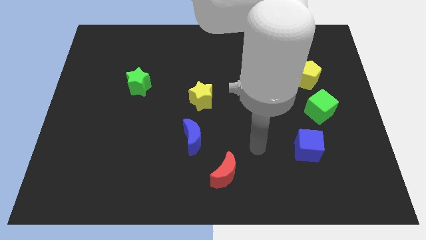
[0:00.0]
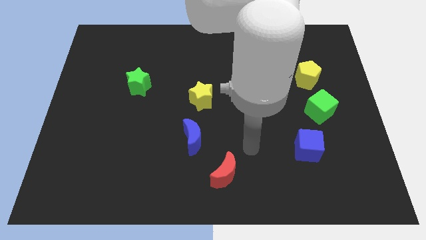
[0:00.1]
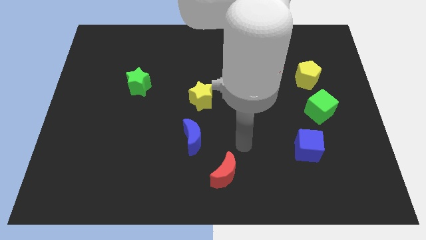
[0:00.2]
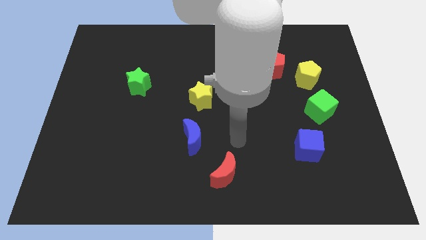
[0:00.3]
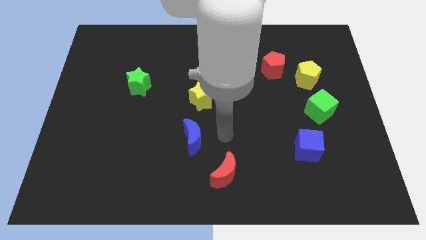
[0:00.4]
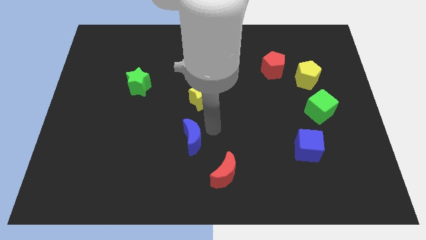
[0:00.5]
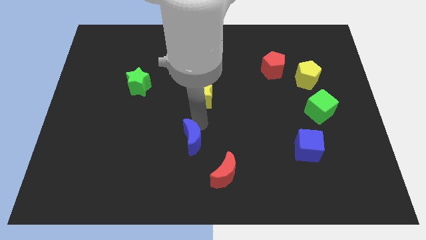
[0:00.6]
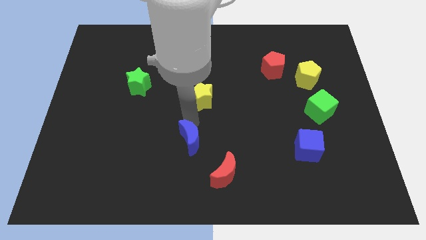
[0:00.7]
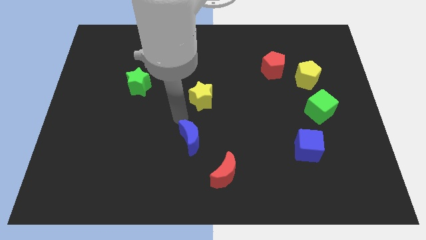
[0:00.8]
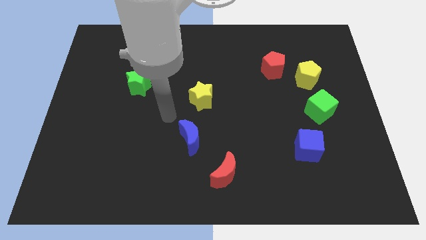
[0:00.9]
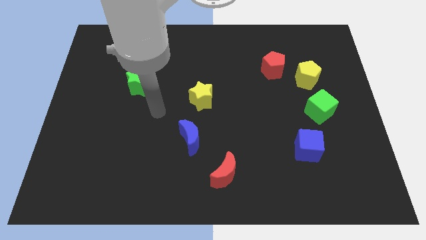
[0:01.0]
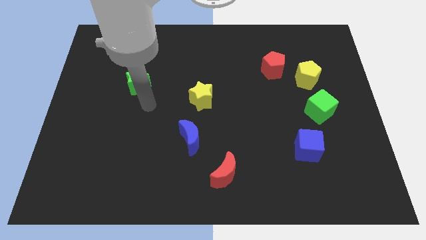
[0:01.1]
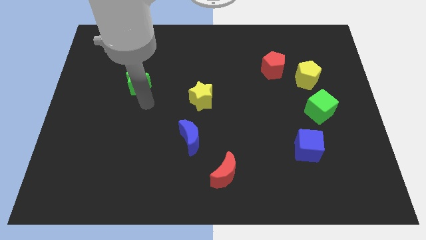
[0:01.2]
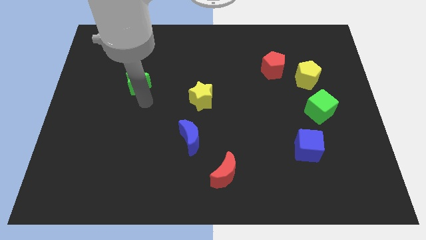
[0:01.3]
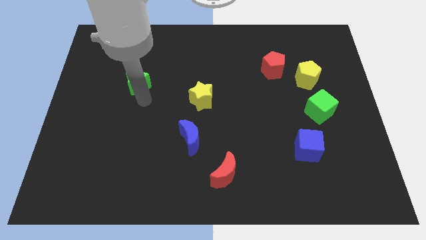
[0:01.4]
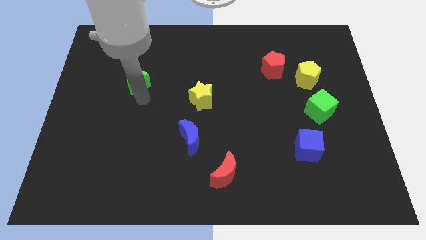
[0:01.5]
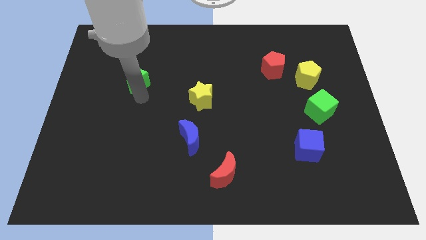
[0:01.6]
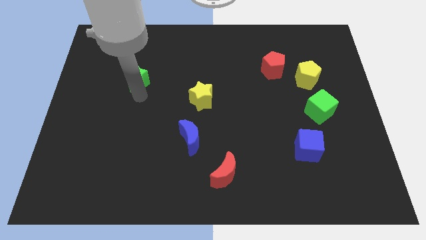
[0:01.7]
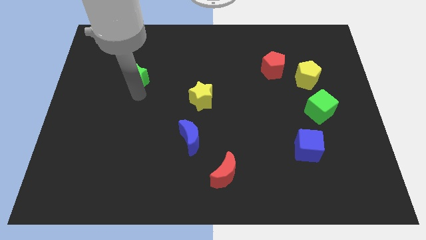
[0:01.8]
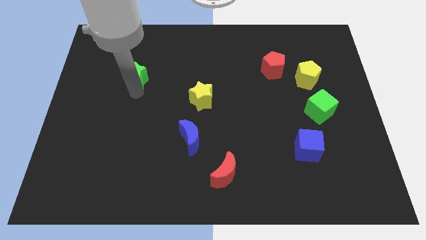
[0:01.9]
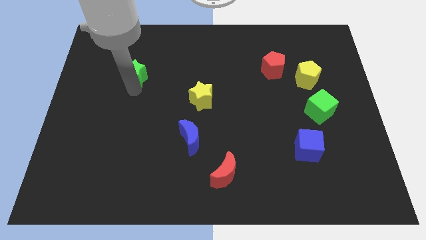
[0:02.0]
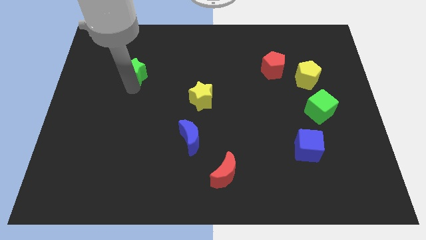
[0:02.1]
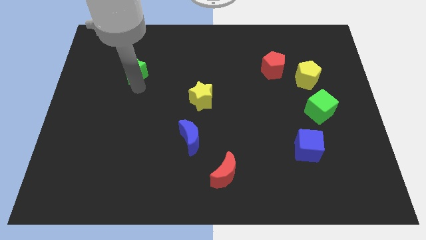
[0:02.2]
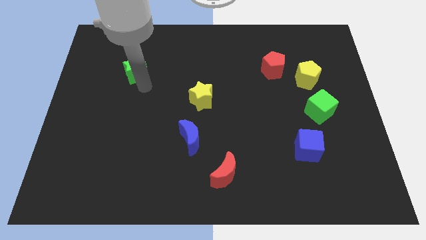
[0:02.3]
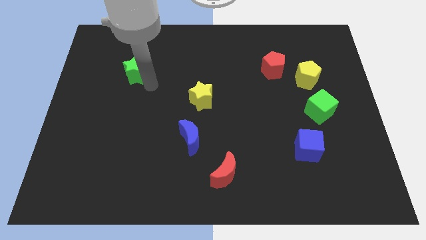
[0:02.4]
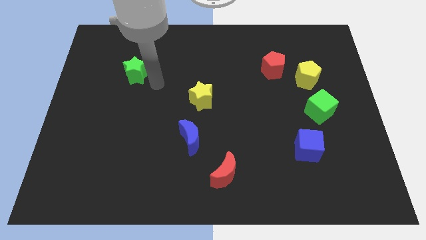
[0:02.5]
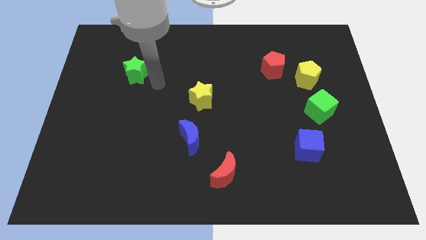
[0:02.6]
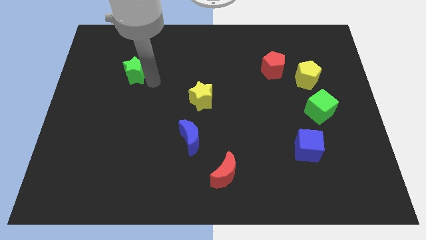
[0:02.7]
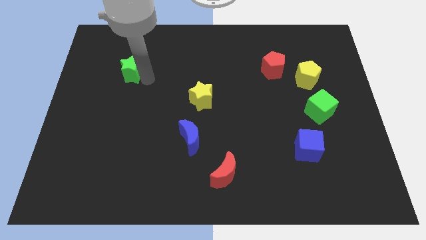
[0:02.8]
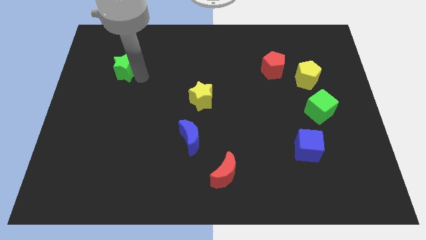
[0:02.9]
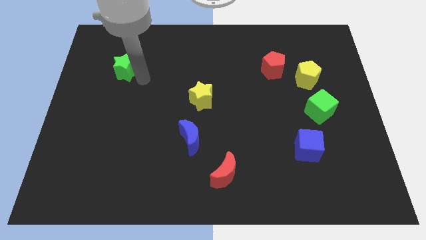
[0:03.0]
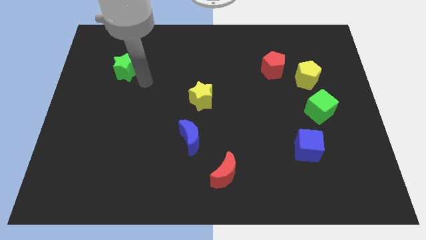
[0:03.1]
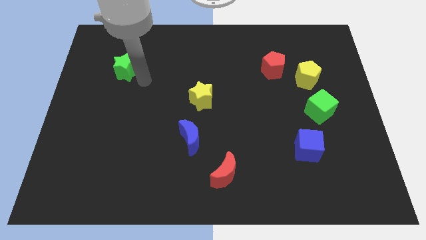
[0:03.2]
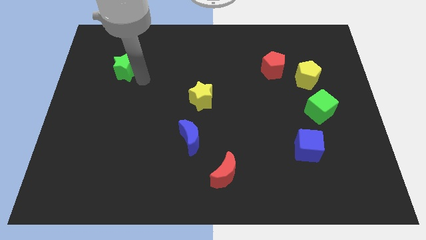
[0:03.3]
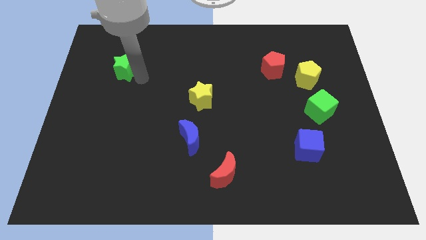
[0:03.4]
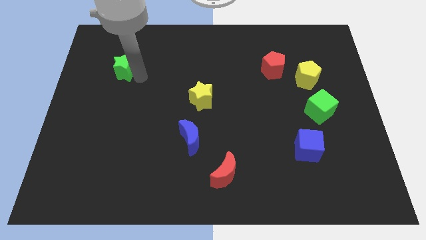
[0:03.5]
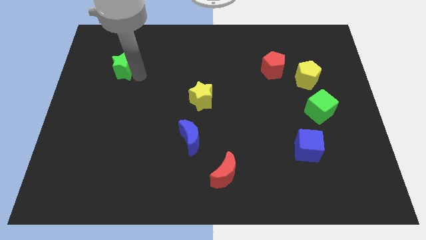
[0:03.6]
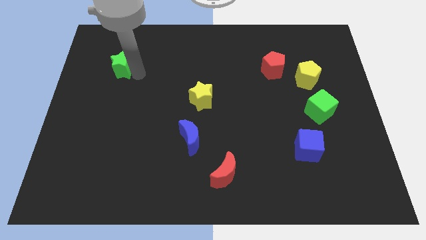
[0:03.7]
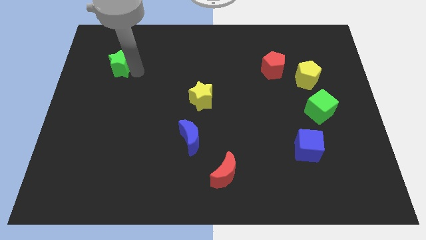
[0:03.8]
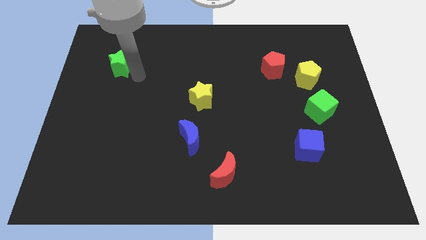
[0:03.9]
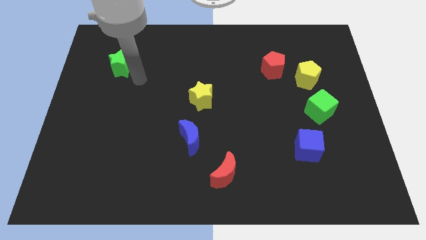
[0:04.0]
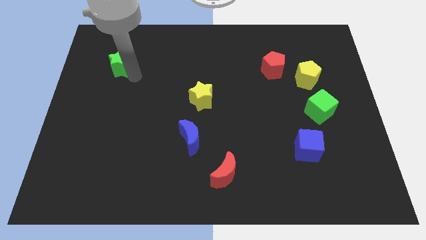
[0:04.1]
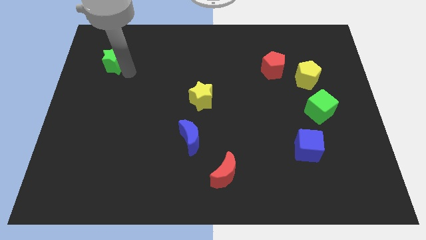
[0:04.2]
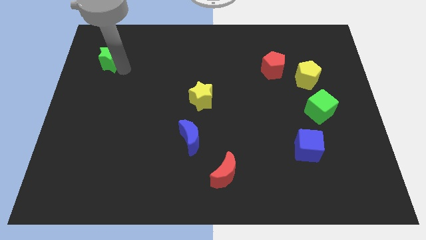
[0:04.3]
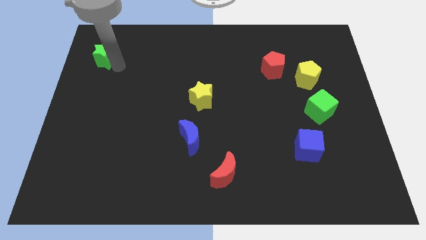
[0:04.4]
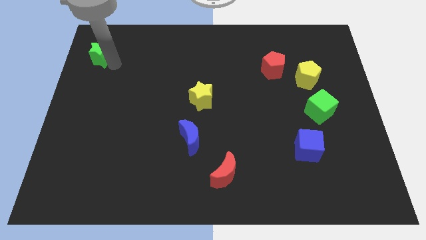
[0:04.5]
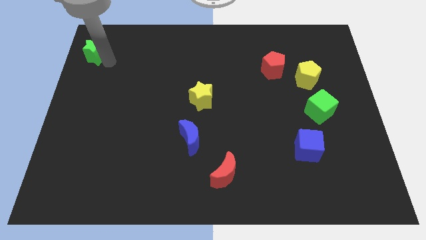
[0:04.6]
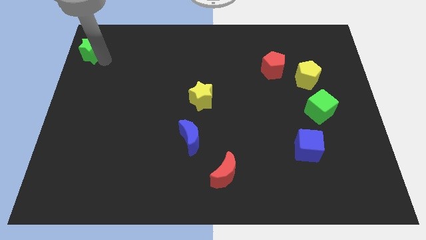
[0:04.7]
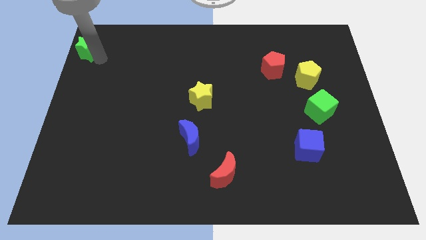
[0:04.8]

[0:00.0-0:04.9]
push the green star to the top left corner

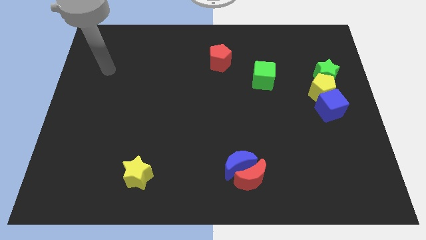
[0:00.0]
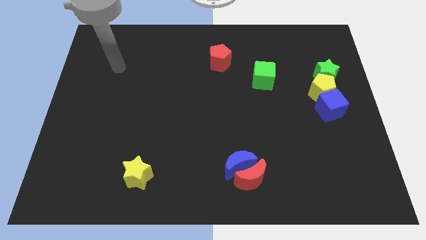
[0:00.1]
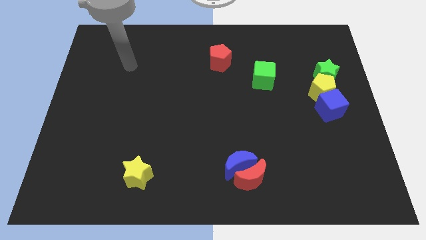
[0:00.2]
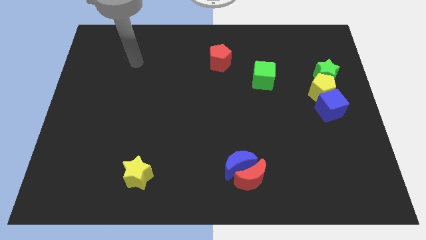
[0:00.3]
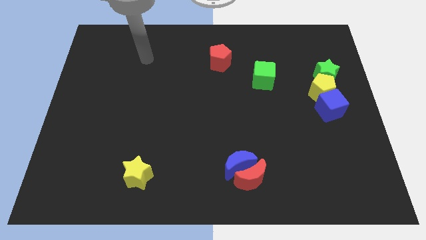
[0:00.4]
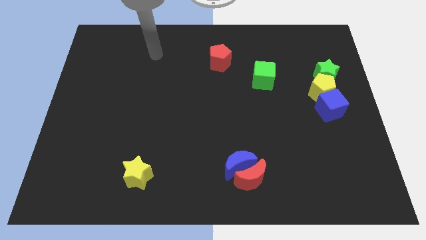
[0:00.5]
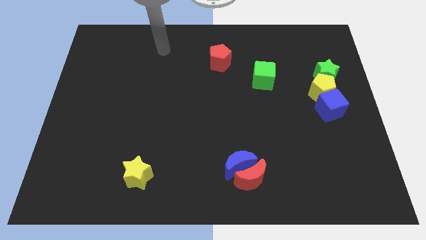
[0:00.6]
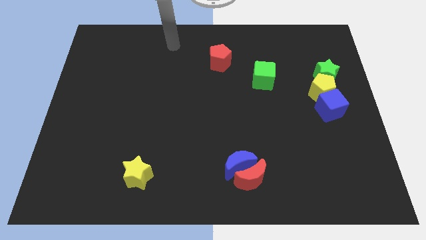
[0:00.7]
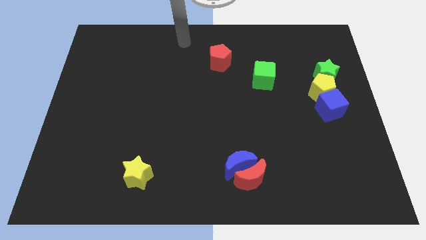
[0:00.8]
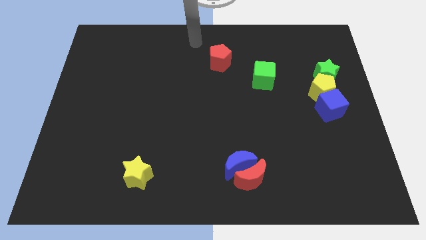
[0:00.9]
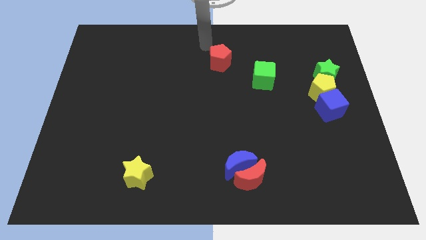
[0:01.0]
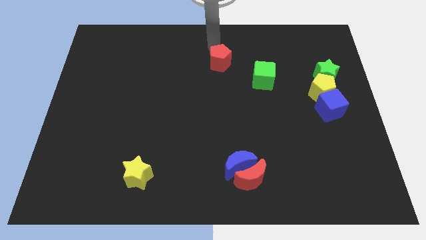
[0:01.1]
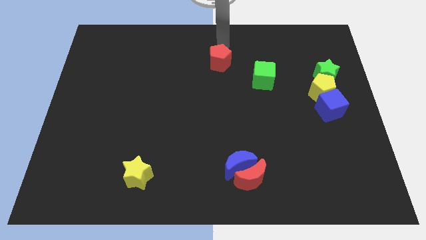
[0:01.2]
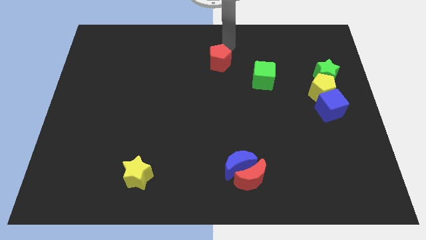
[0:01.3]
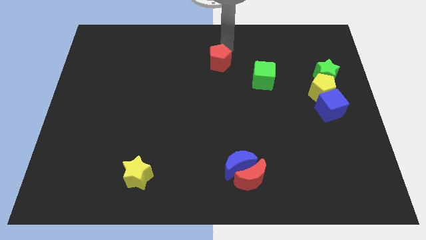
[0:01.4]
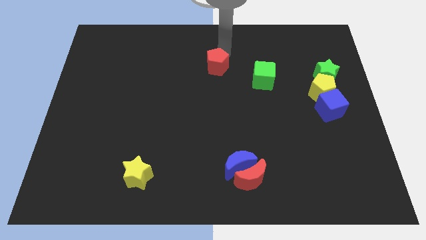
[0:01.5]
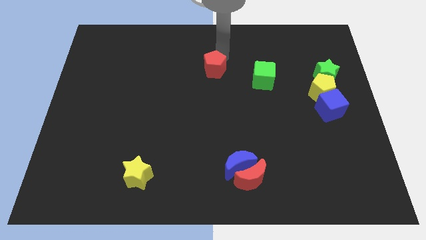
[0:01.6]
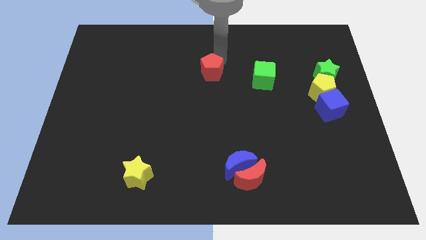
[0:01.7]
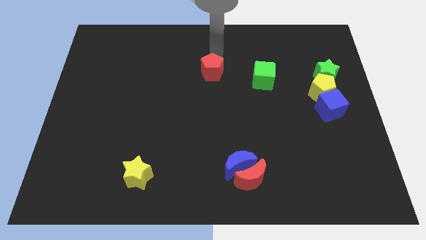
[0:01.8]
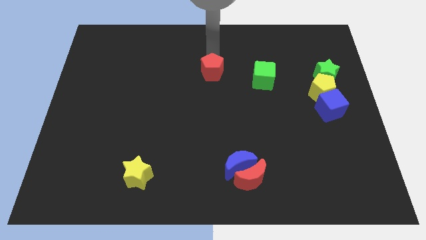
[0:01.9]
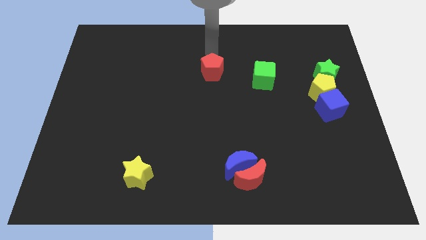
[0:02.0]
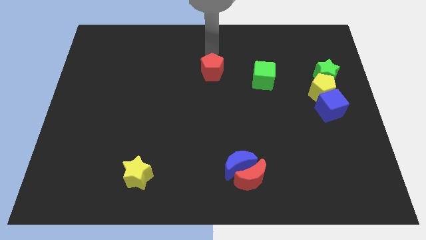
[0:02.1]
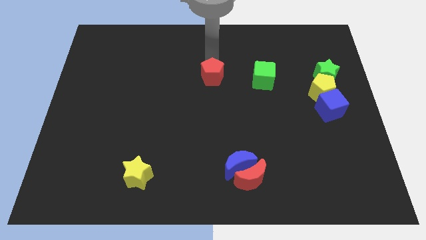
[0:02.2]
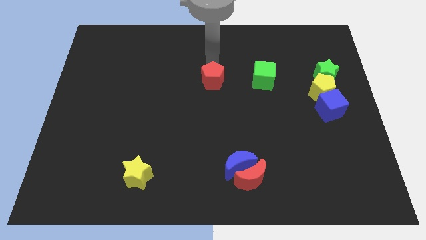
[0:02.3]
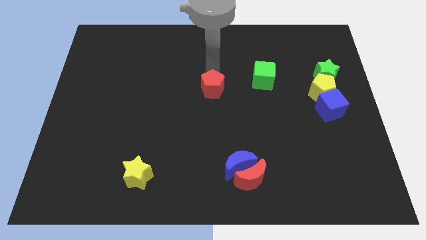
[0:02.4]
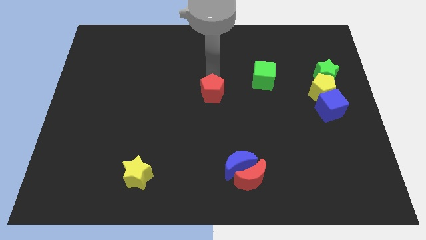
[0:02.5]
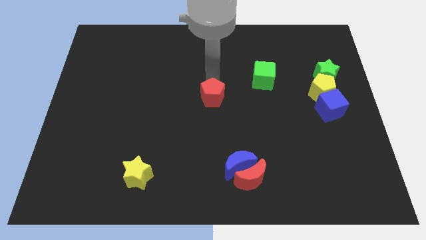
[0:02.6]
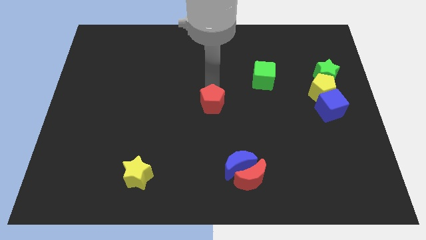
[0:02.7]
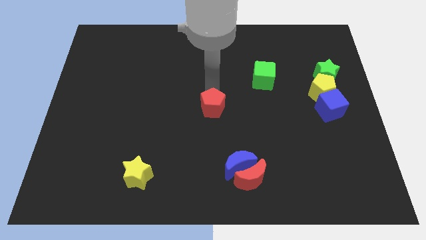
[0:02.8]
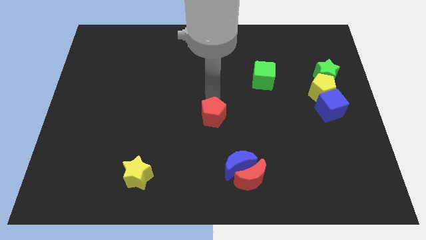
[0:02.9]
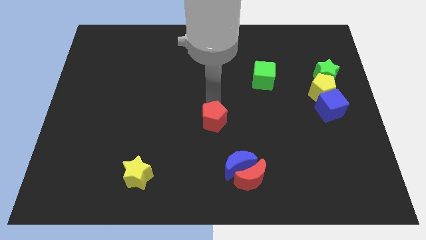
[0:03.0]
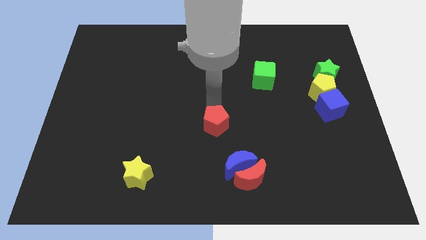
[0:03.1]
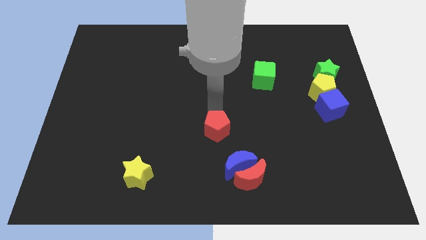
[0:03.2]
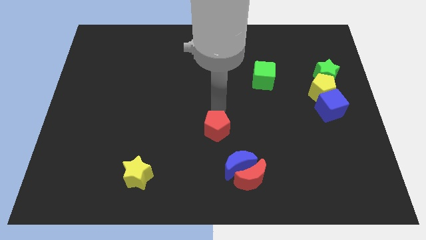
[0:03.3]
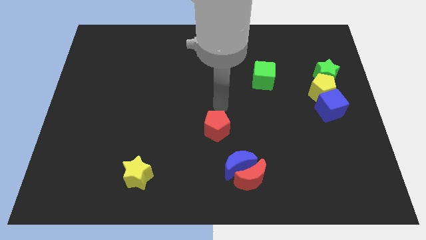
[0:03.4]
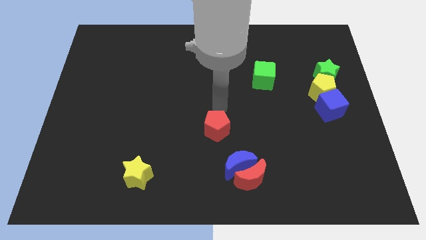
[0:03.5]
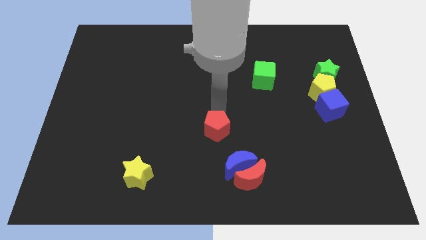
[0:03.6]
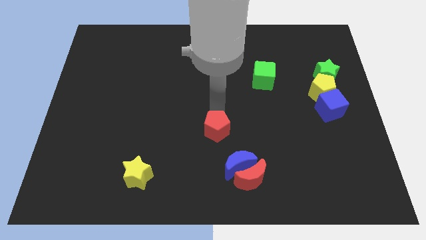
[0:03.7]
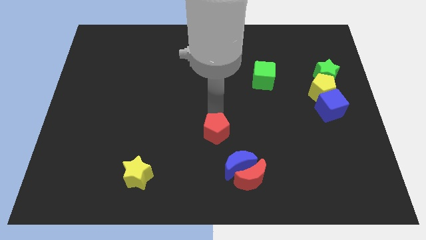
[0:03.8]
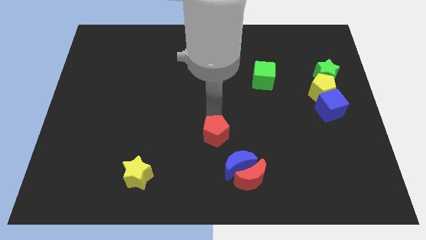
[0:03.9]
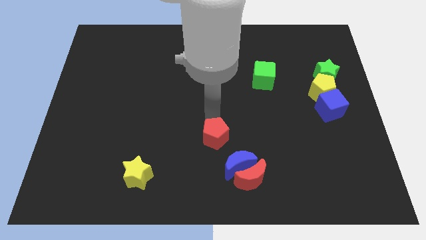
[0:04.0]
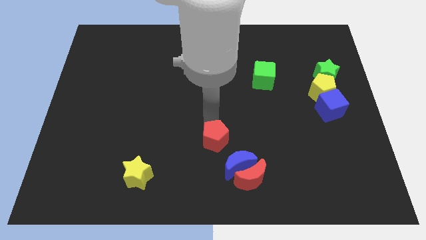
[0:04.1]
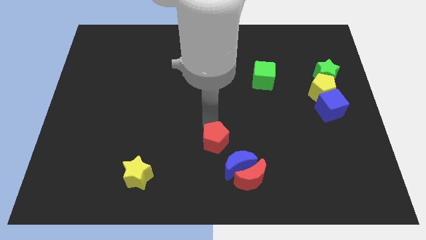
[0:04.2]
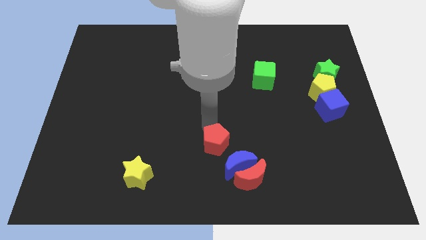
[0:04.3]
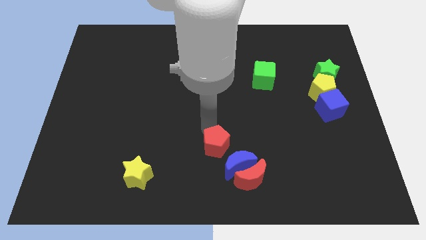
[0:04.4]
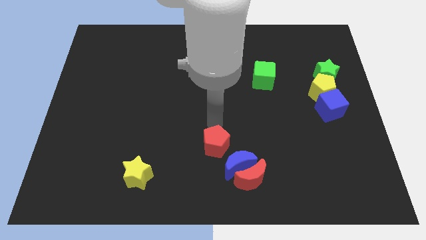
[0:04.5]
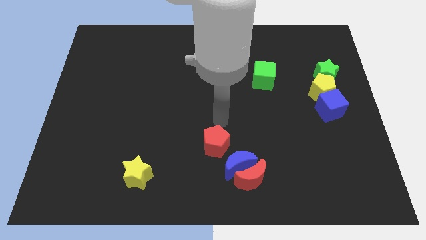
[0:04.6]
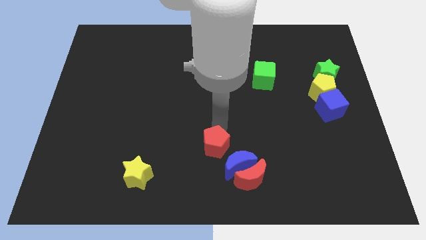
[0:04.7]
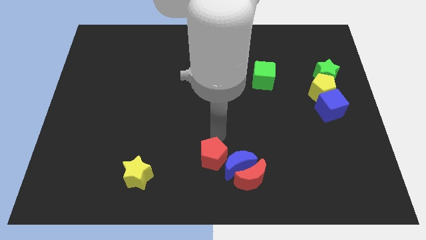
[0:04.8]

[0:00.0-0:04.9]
slide the red pentagon to the bottom side
